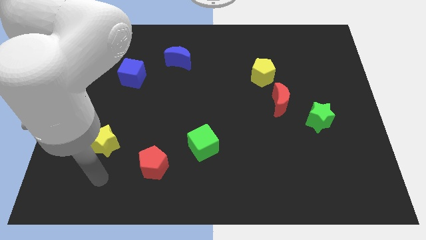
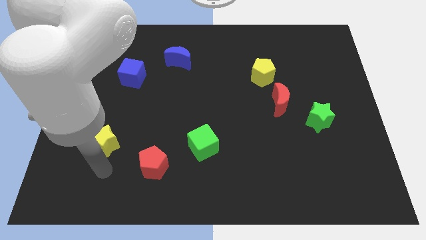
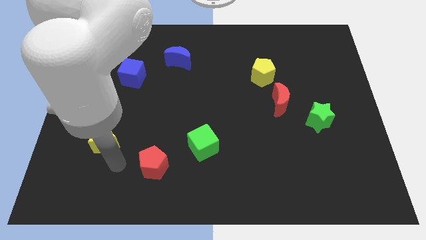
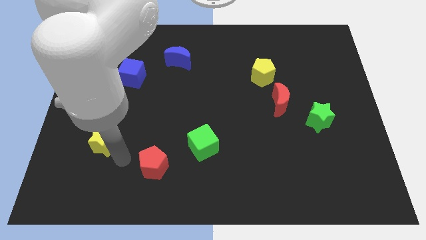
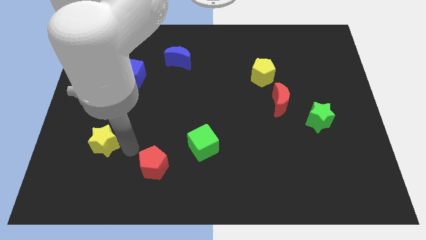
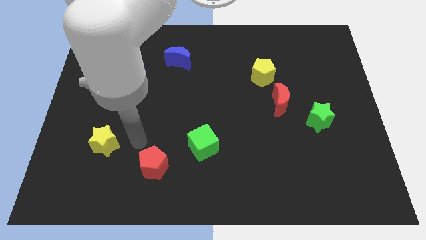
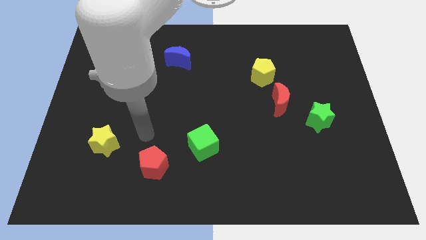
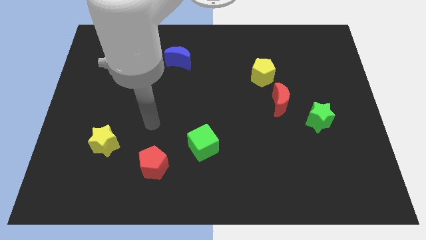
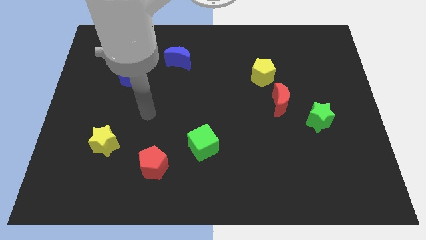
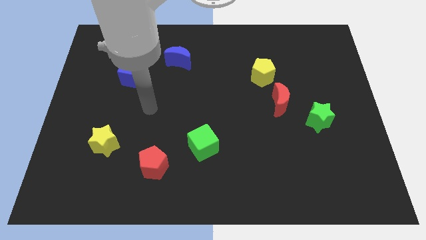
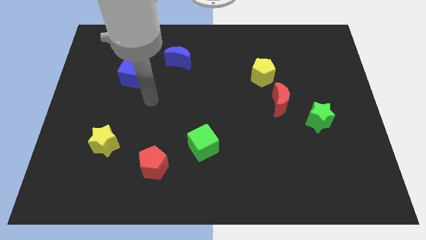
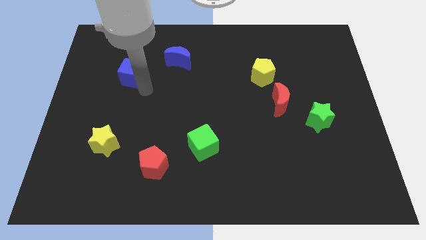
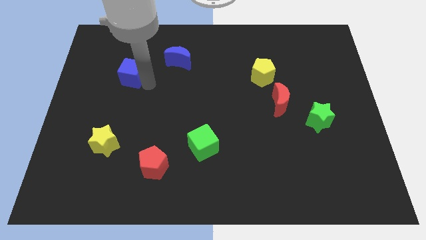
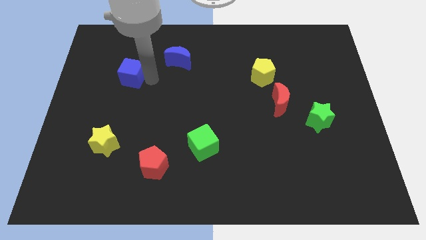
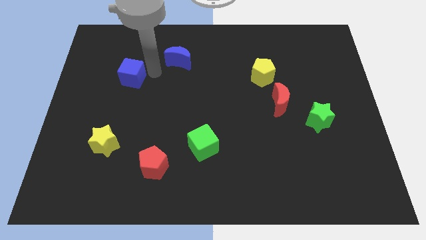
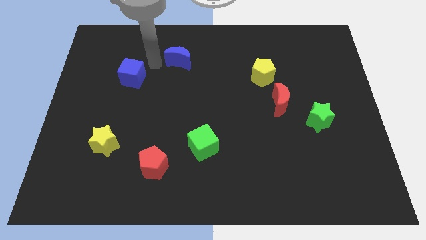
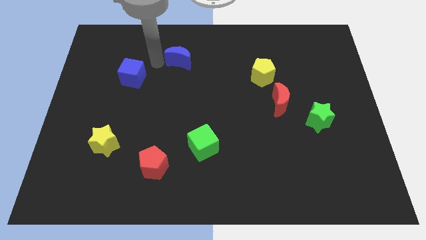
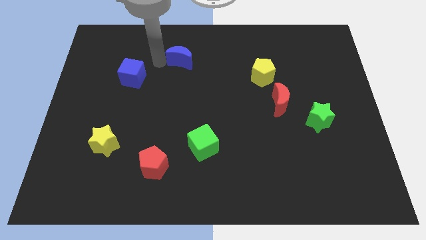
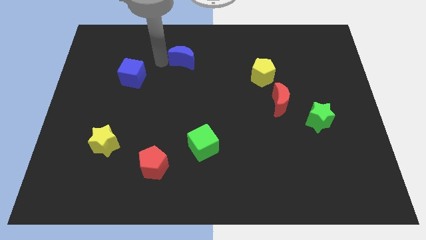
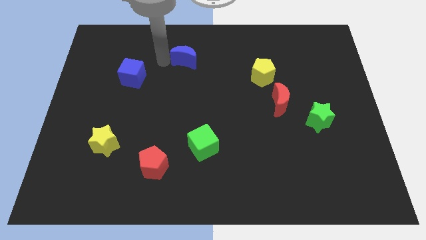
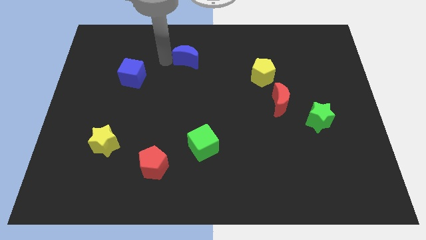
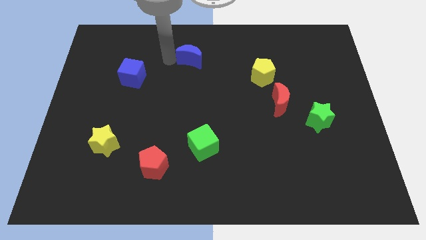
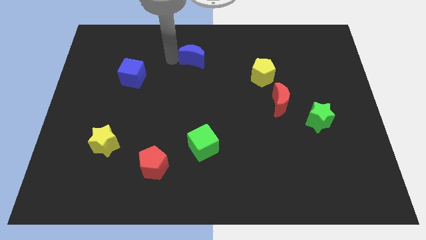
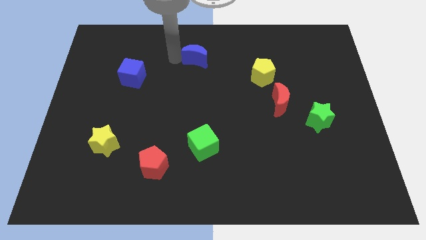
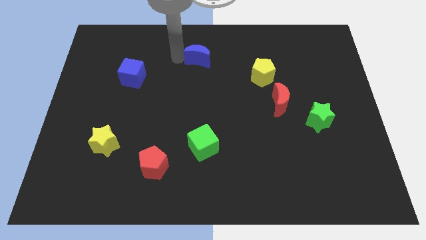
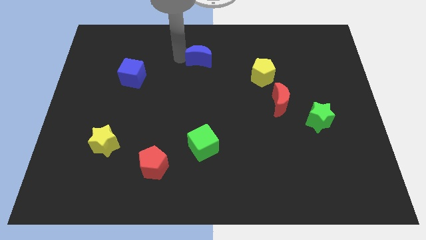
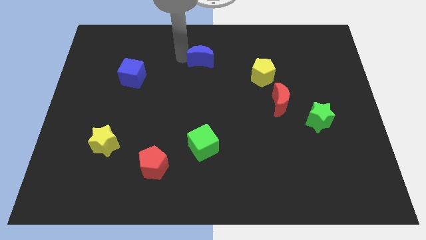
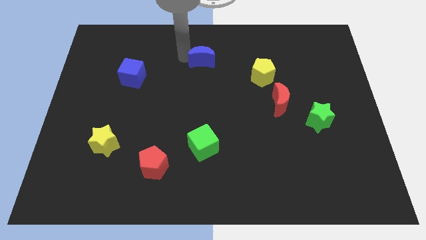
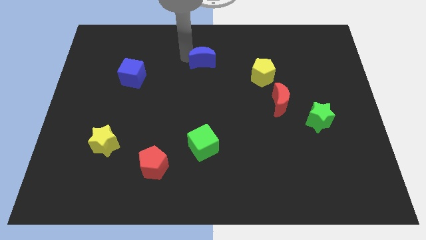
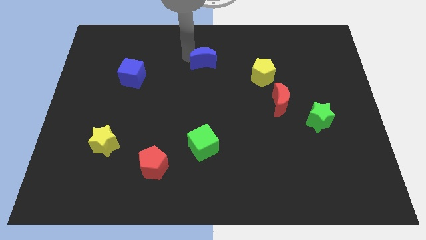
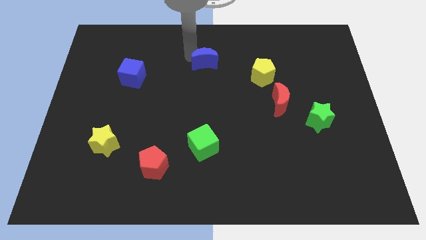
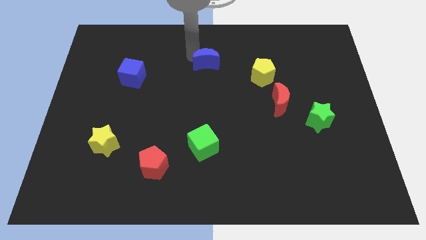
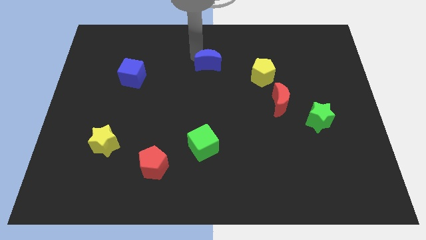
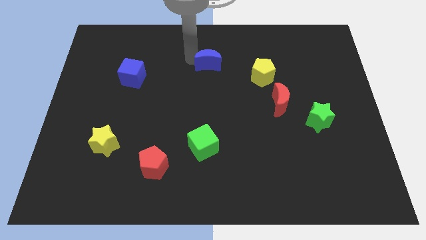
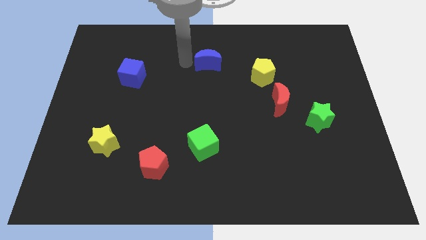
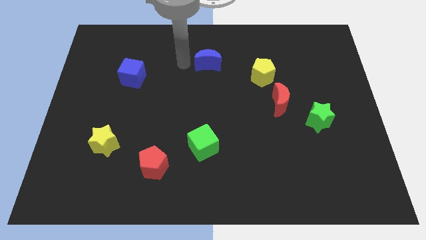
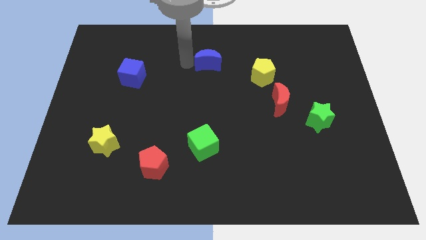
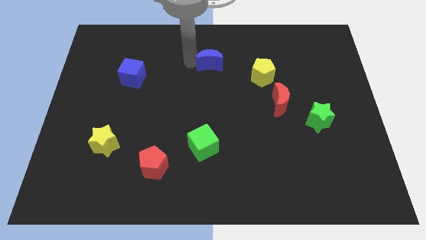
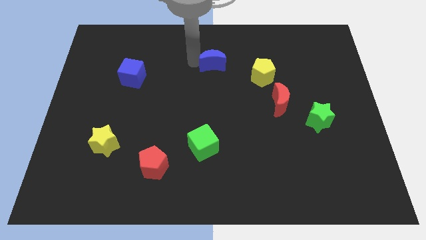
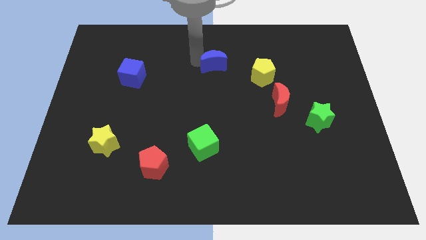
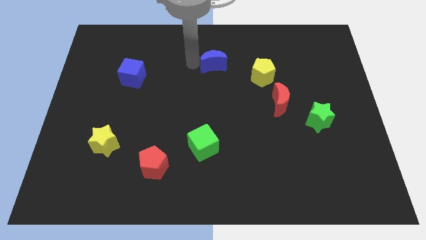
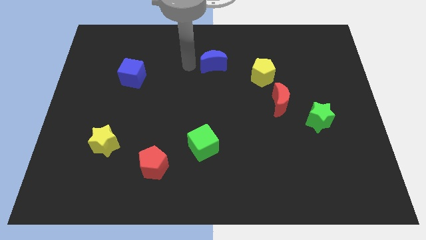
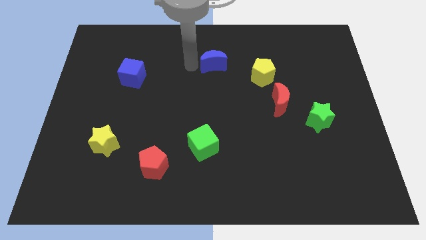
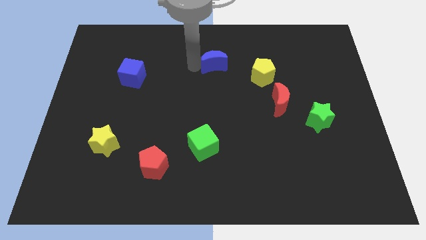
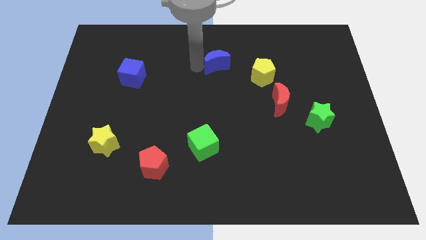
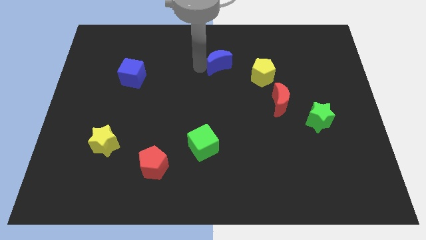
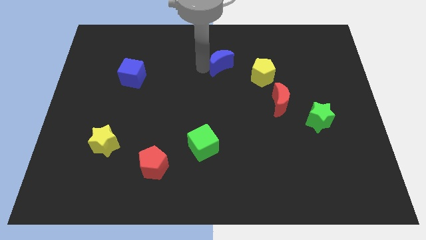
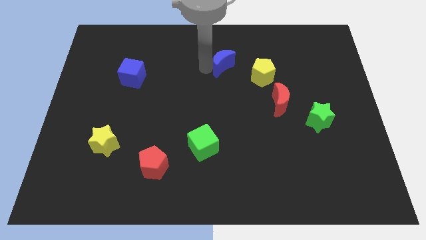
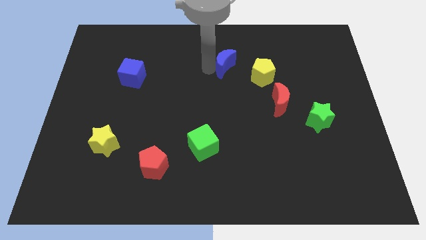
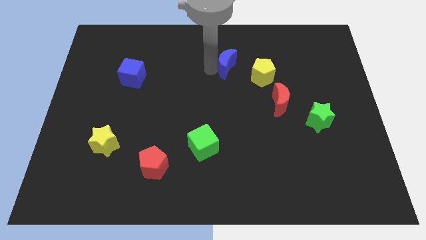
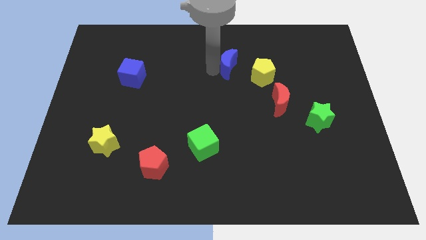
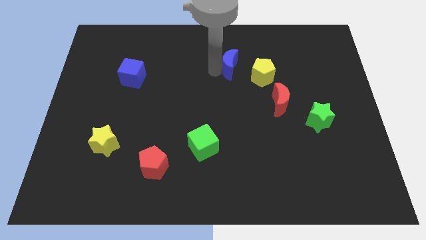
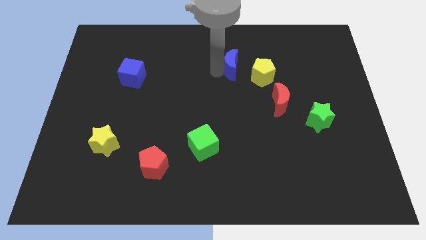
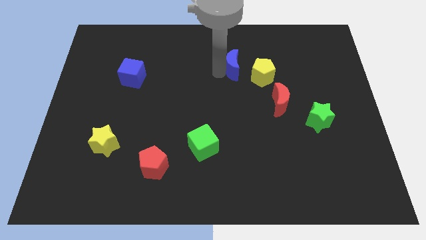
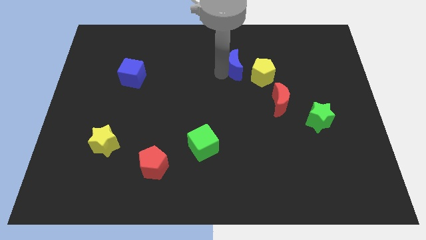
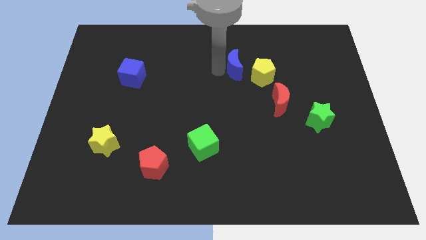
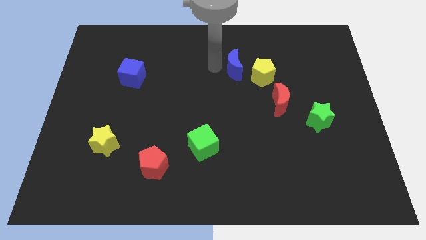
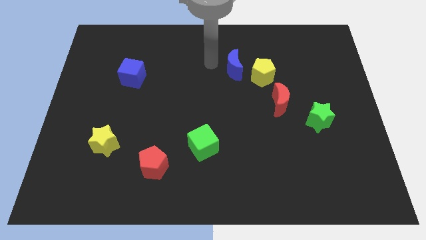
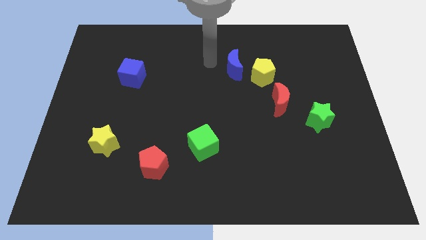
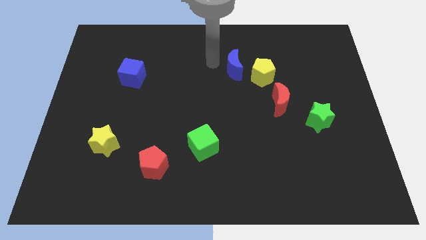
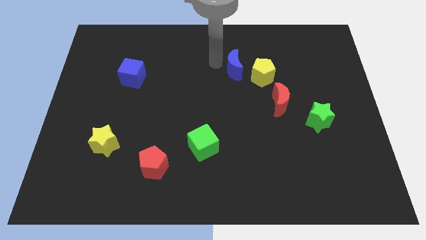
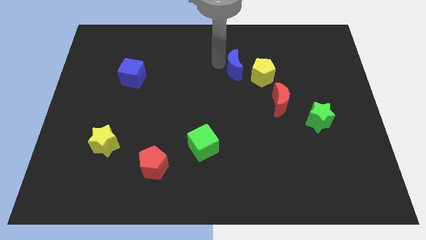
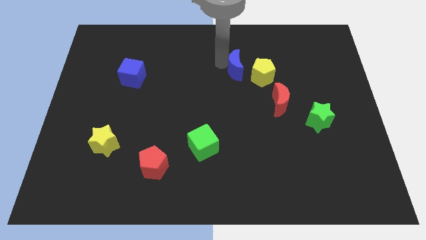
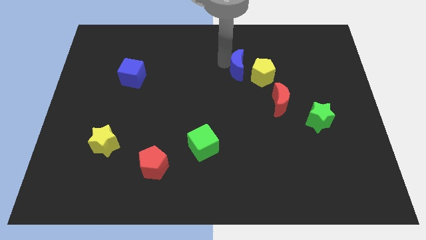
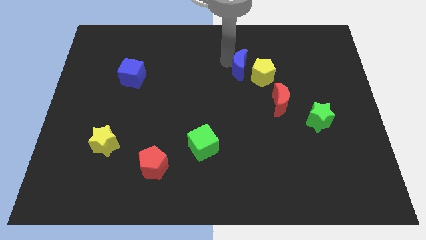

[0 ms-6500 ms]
put the blue moon to the yellow pentagon

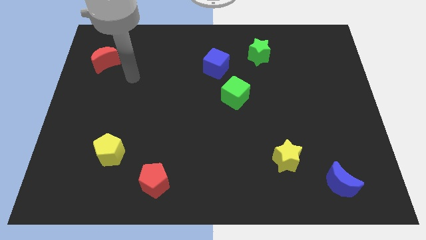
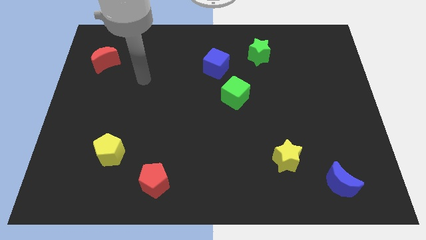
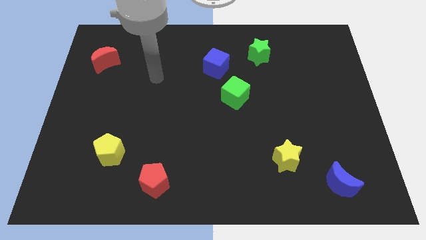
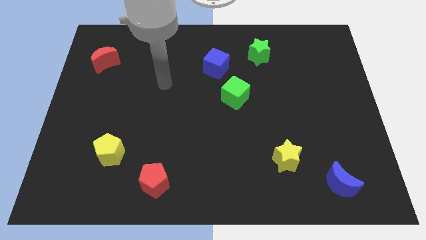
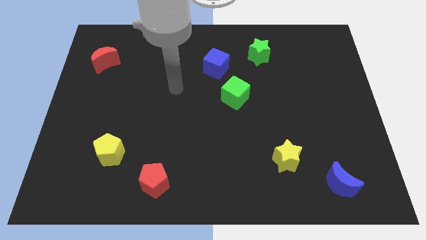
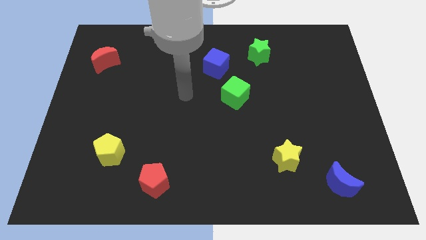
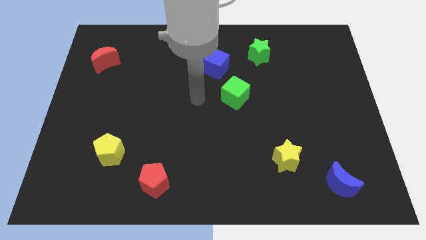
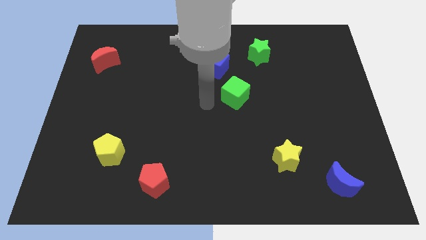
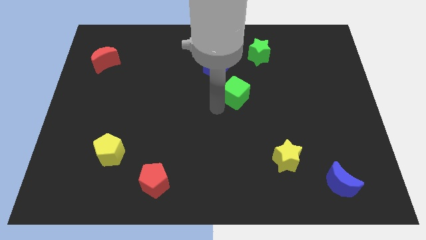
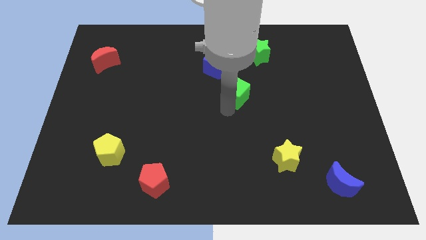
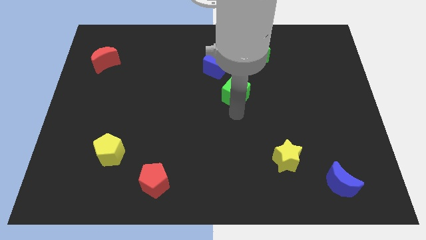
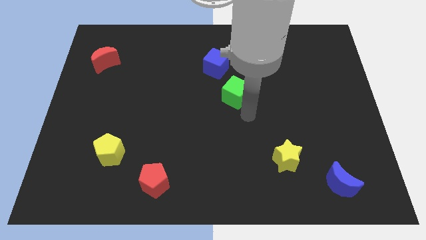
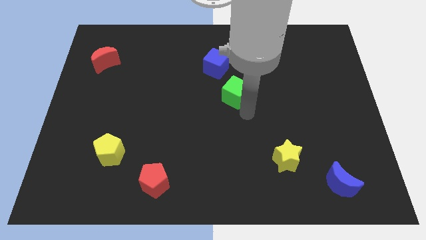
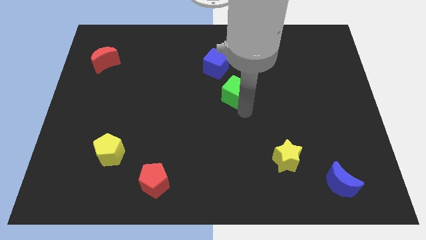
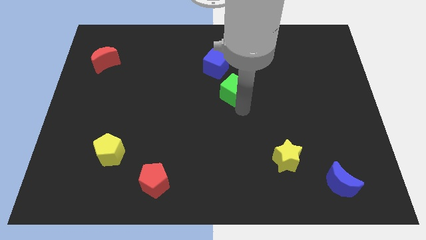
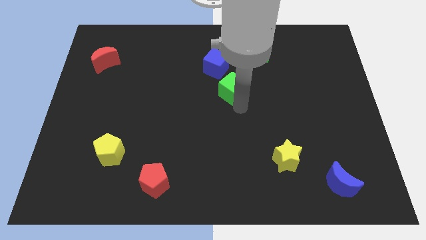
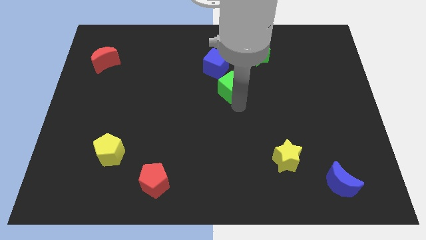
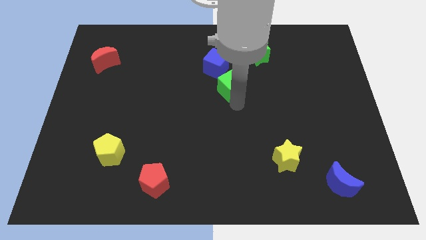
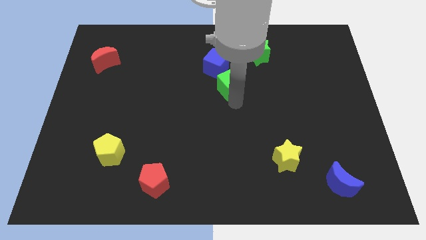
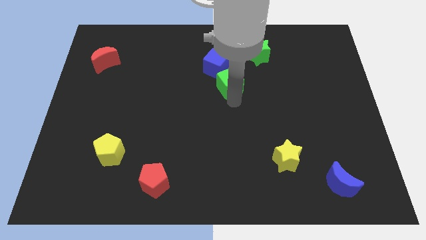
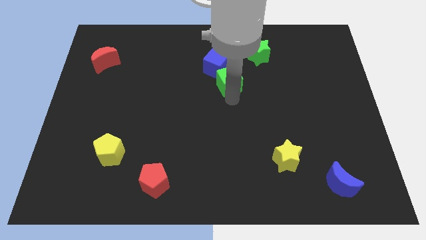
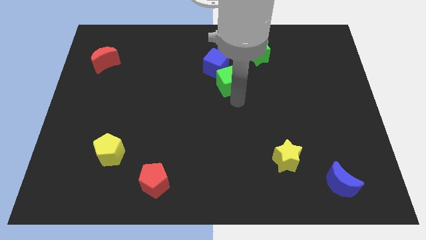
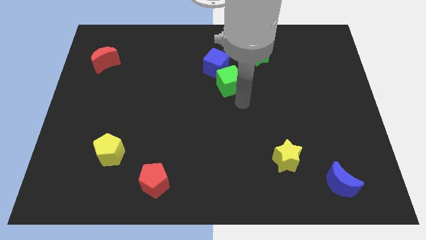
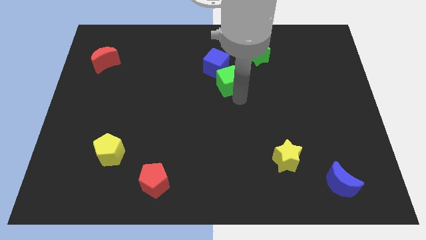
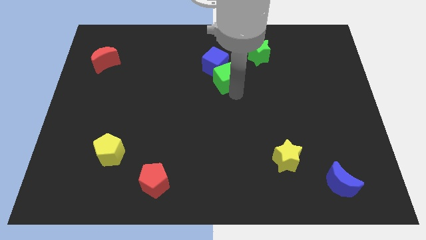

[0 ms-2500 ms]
put the green cube next to the blue cube
